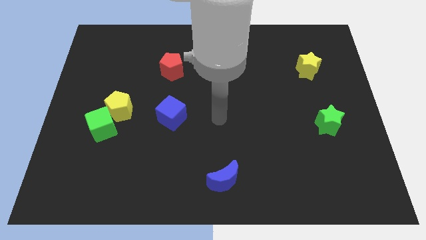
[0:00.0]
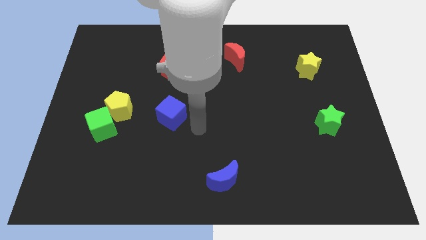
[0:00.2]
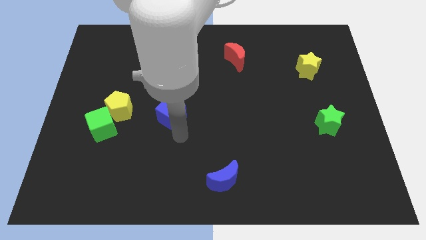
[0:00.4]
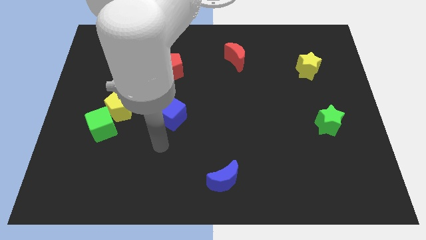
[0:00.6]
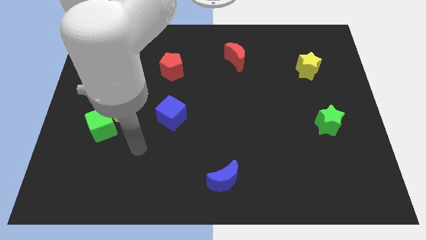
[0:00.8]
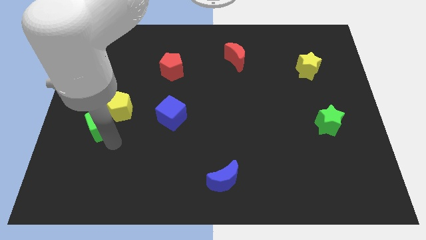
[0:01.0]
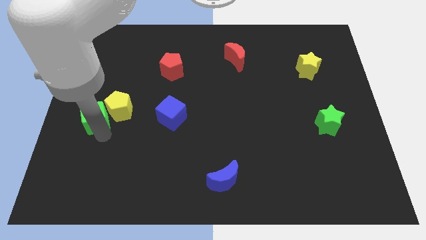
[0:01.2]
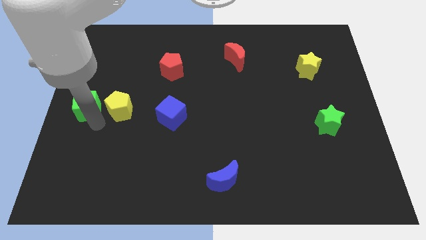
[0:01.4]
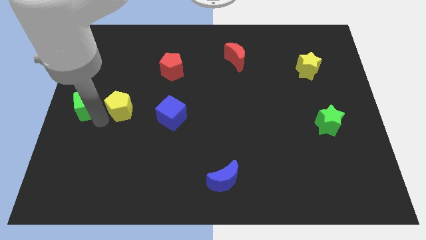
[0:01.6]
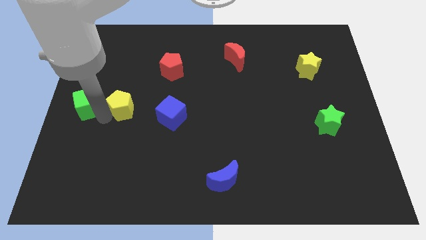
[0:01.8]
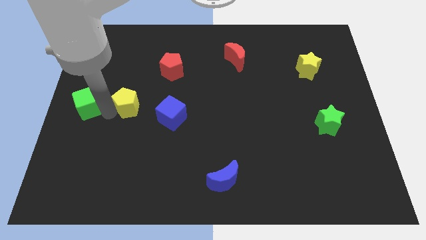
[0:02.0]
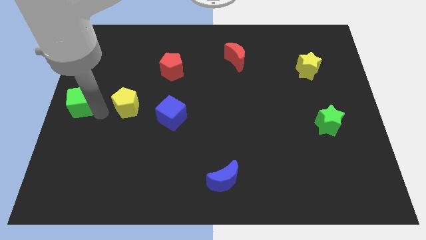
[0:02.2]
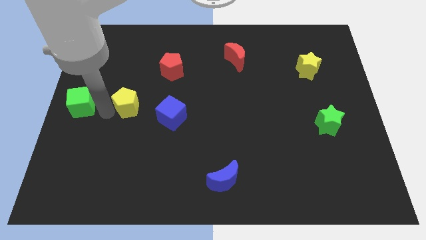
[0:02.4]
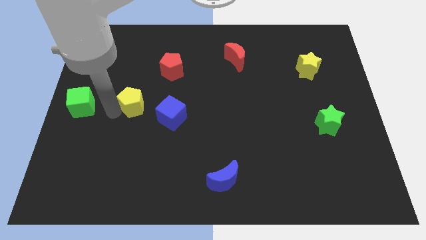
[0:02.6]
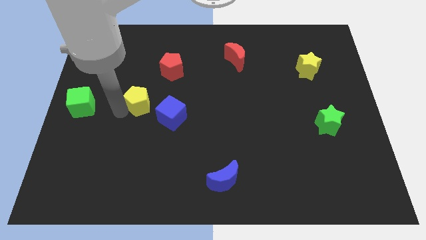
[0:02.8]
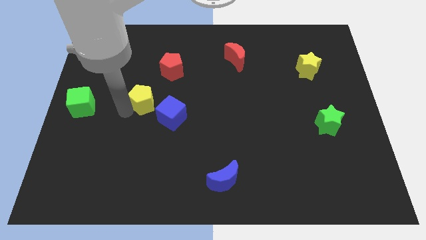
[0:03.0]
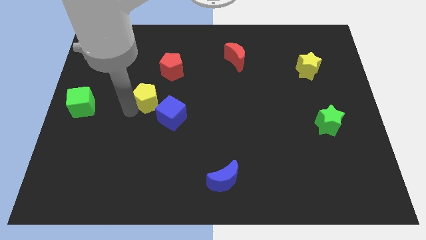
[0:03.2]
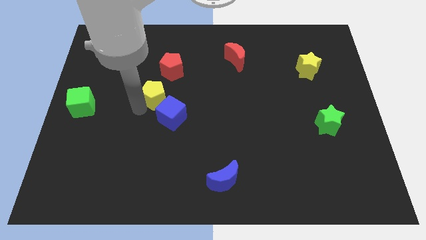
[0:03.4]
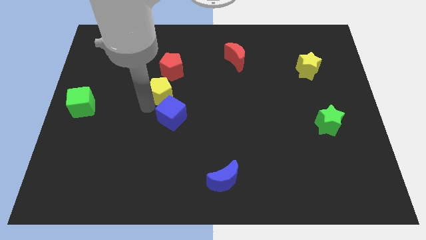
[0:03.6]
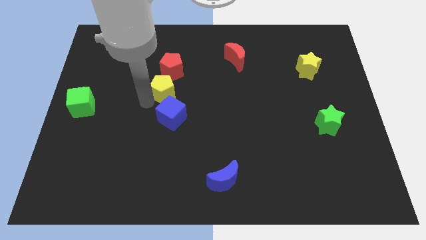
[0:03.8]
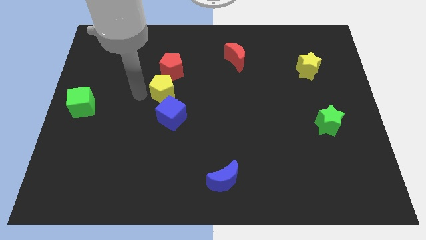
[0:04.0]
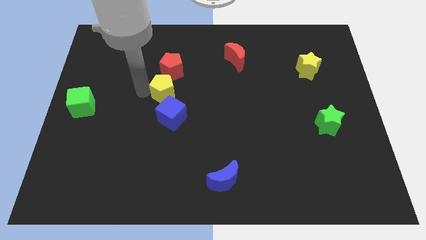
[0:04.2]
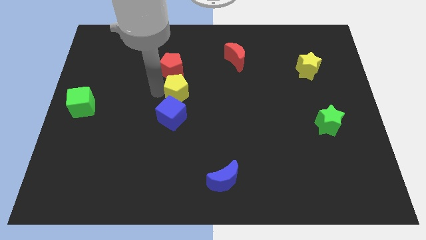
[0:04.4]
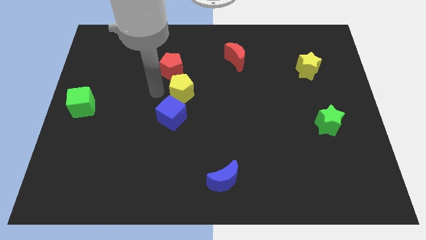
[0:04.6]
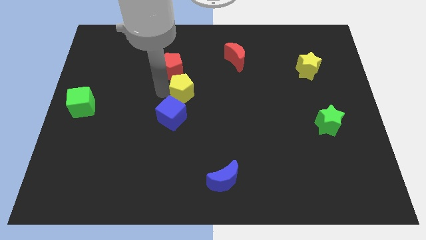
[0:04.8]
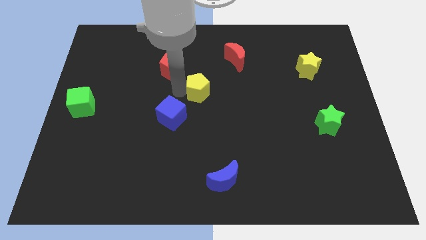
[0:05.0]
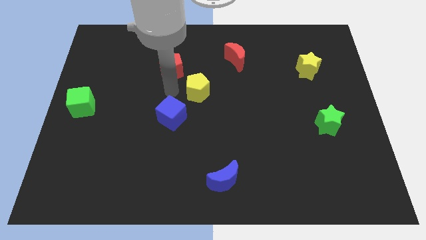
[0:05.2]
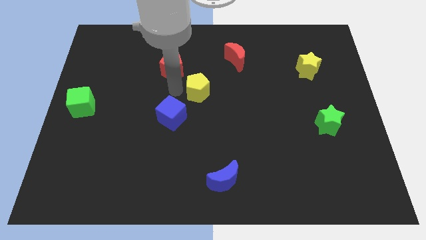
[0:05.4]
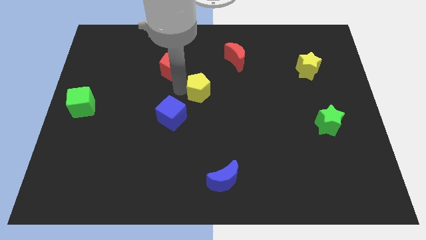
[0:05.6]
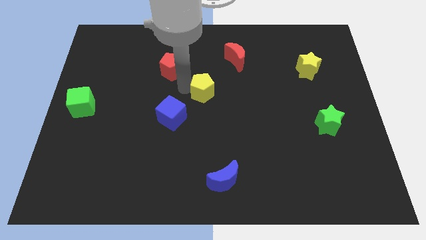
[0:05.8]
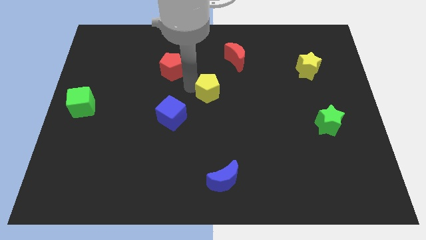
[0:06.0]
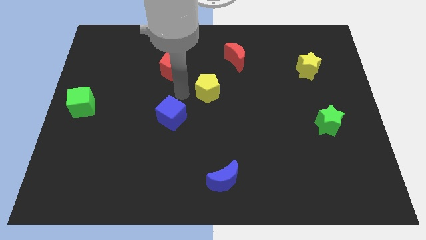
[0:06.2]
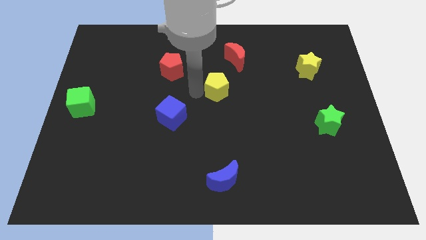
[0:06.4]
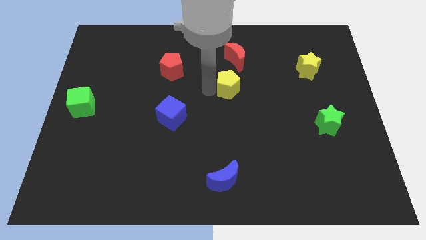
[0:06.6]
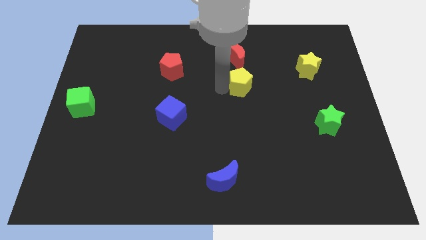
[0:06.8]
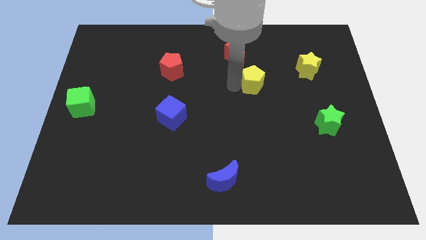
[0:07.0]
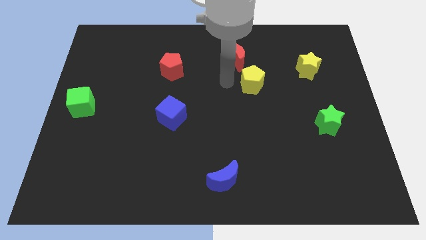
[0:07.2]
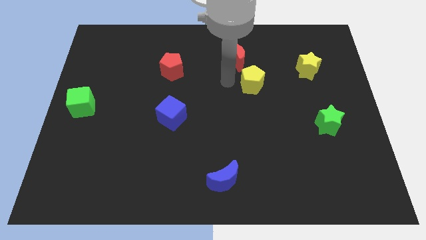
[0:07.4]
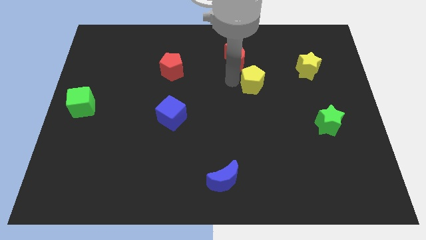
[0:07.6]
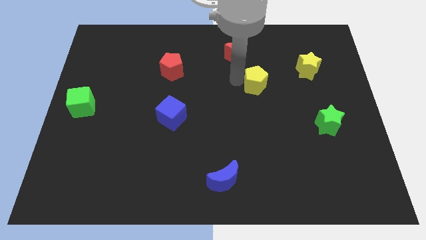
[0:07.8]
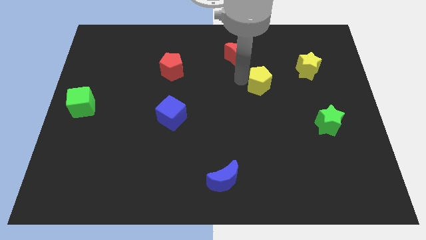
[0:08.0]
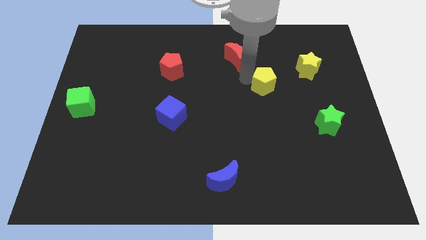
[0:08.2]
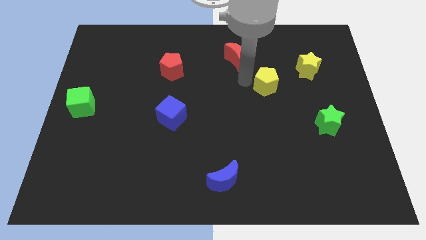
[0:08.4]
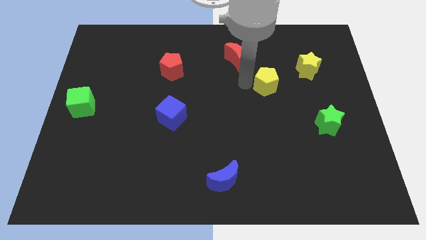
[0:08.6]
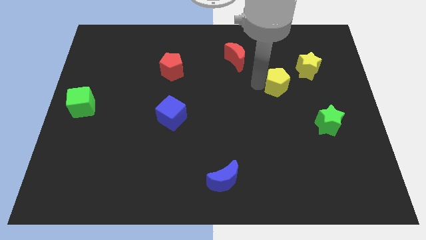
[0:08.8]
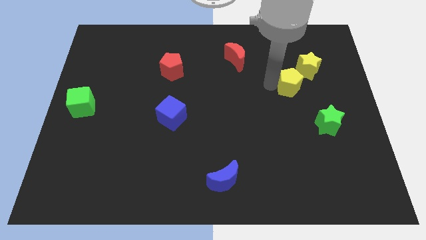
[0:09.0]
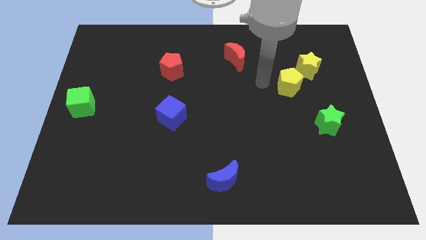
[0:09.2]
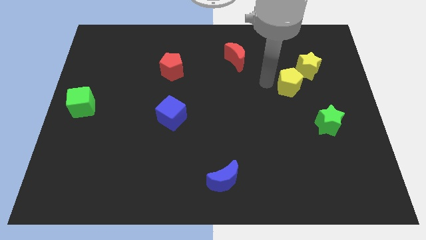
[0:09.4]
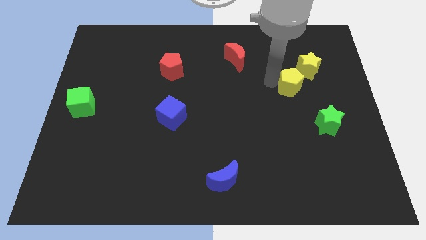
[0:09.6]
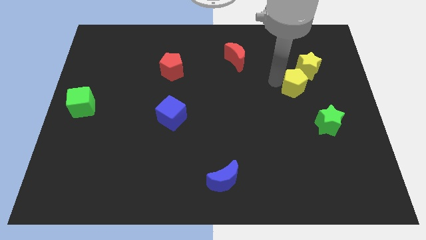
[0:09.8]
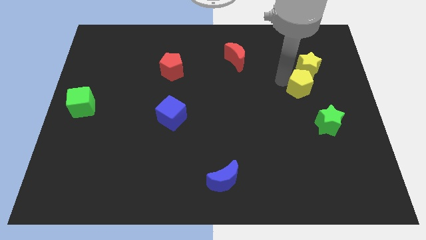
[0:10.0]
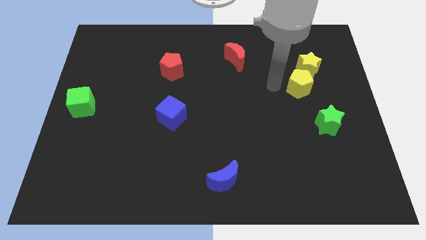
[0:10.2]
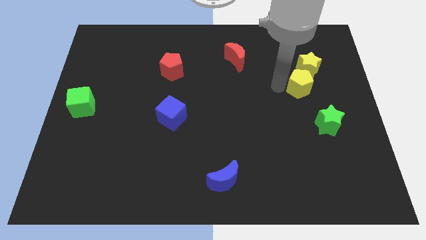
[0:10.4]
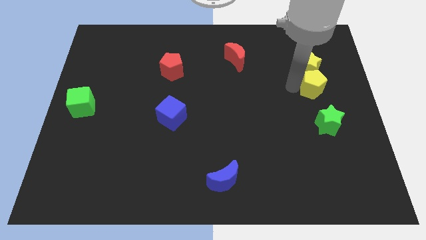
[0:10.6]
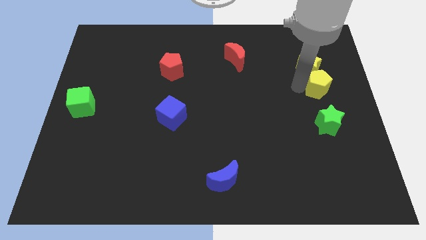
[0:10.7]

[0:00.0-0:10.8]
put the yellow pentagon to the center right
